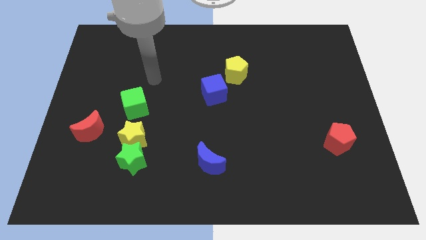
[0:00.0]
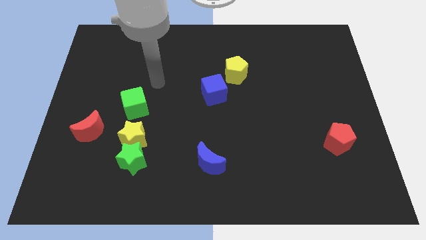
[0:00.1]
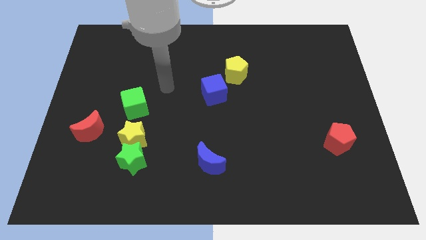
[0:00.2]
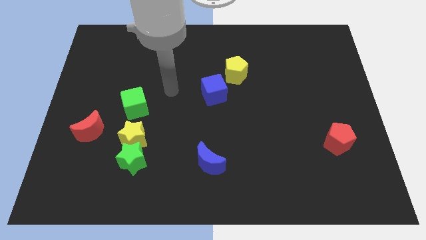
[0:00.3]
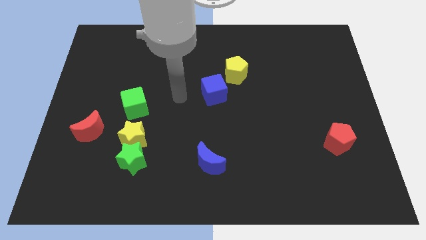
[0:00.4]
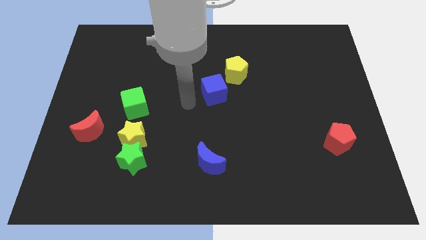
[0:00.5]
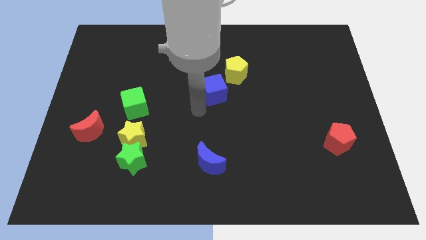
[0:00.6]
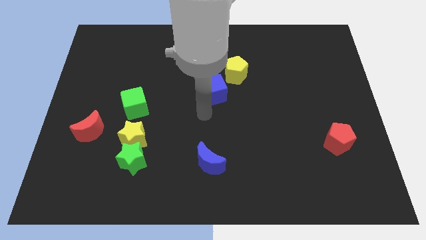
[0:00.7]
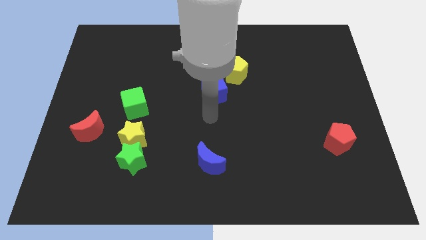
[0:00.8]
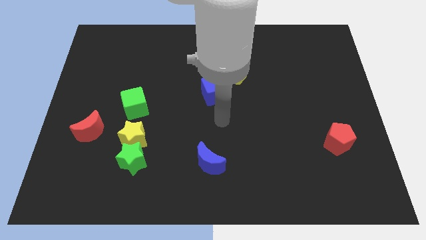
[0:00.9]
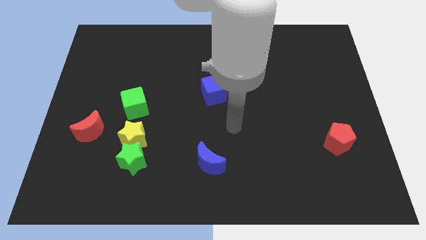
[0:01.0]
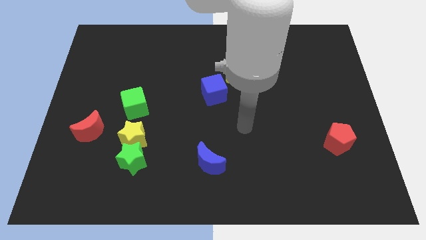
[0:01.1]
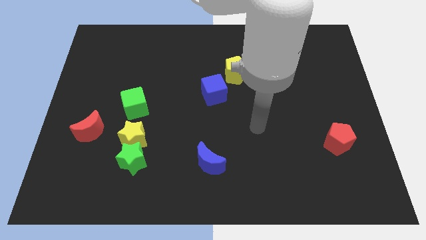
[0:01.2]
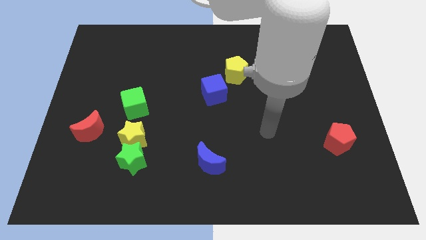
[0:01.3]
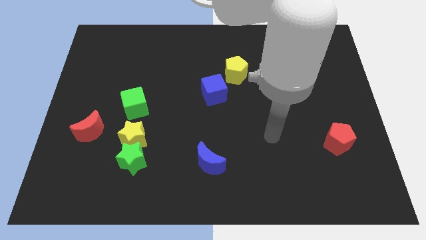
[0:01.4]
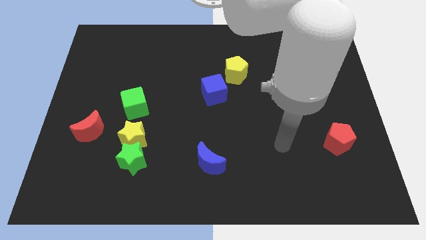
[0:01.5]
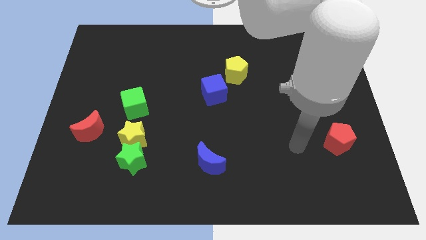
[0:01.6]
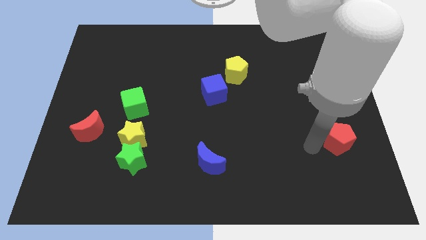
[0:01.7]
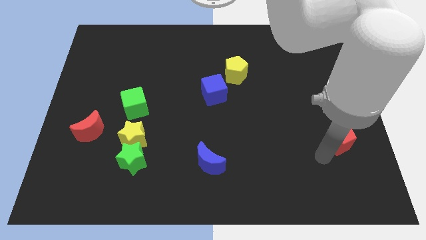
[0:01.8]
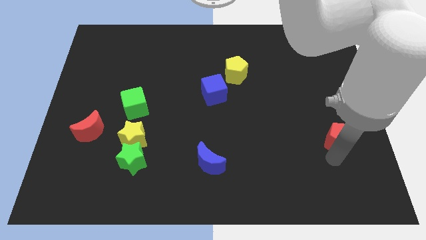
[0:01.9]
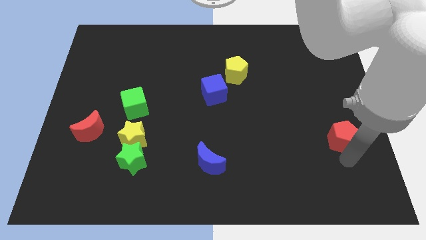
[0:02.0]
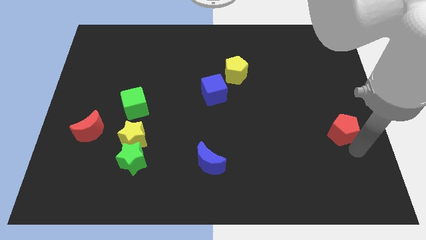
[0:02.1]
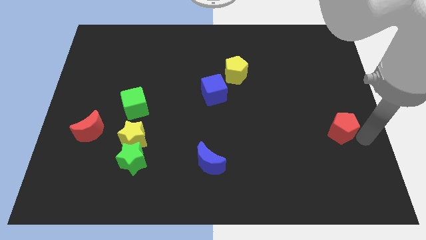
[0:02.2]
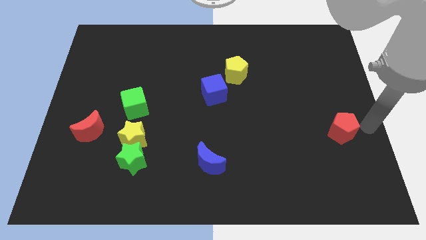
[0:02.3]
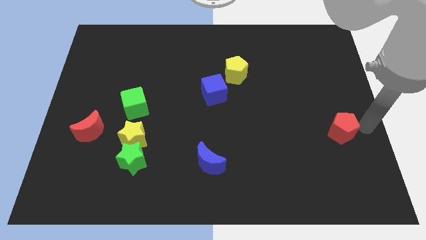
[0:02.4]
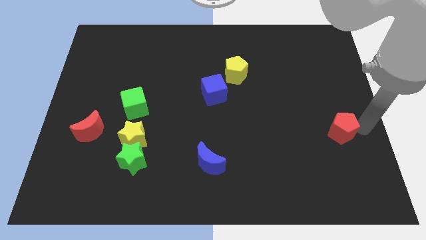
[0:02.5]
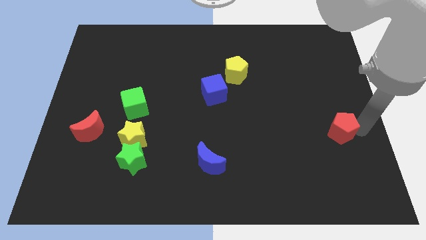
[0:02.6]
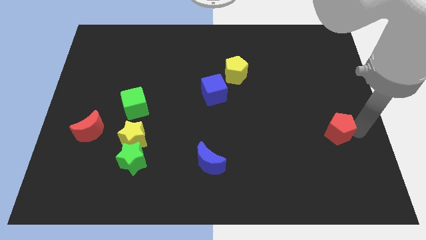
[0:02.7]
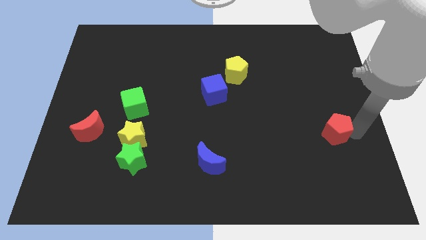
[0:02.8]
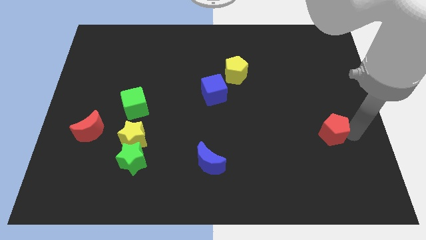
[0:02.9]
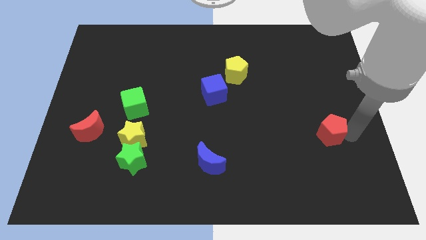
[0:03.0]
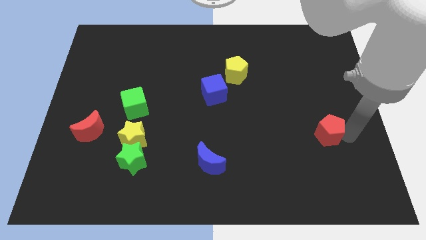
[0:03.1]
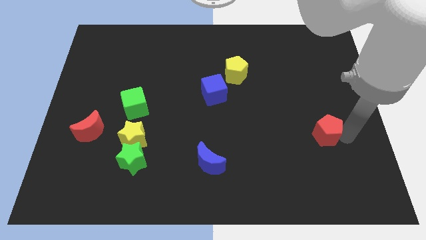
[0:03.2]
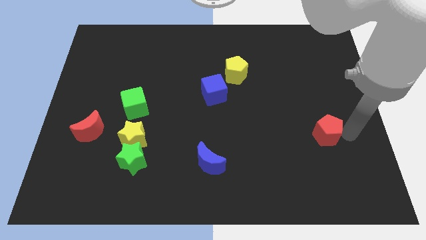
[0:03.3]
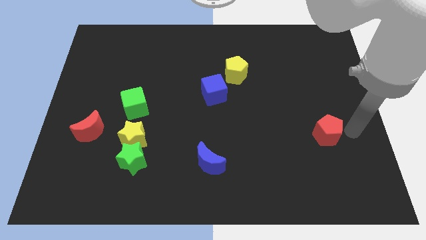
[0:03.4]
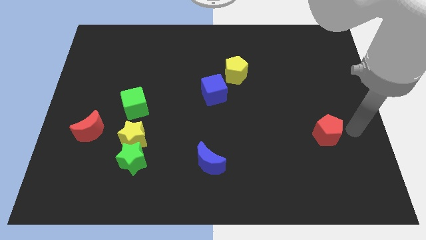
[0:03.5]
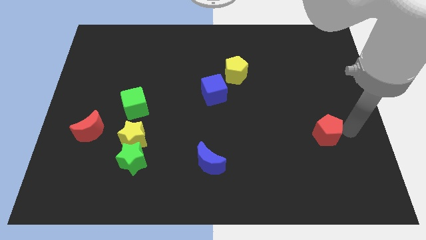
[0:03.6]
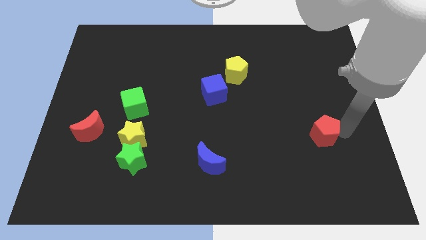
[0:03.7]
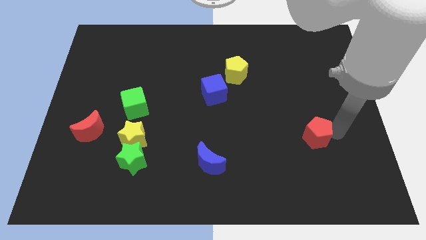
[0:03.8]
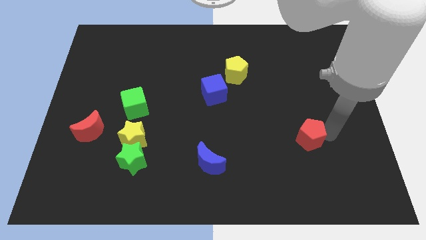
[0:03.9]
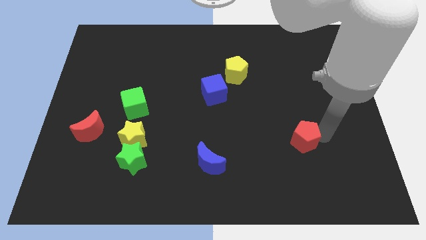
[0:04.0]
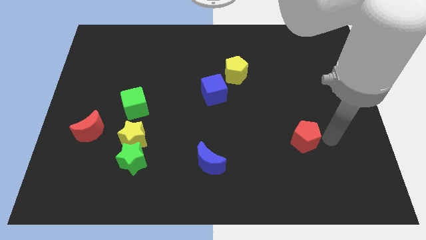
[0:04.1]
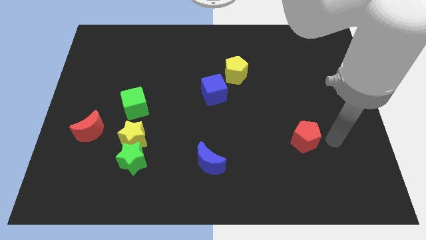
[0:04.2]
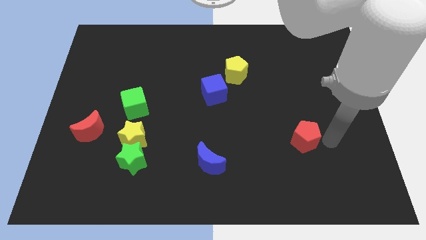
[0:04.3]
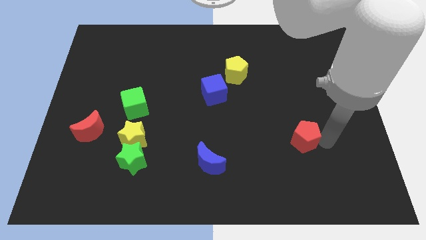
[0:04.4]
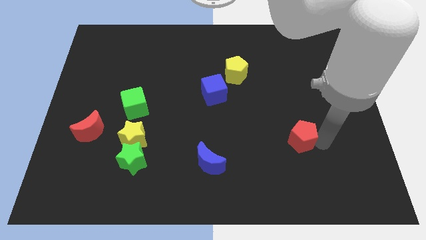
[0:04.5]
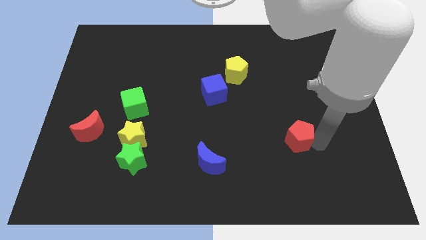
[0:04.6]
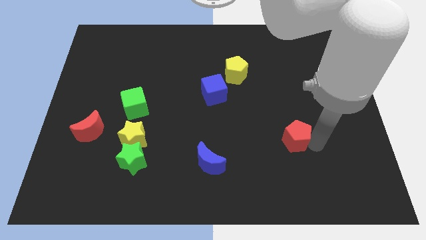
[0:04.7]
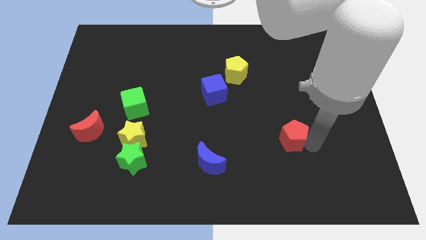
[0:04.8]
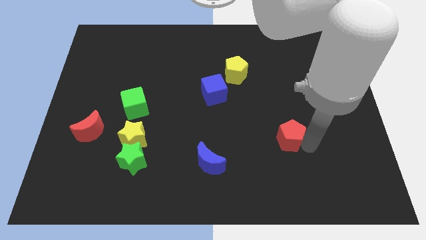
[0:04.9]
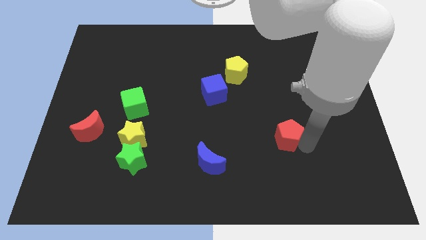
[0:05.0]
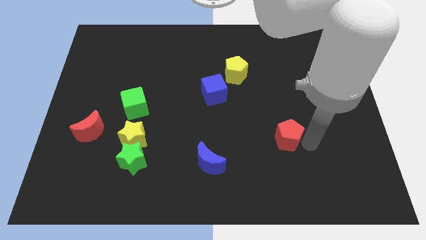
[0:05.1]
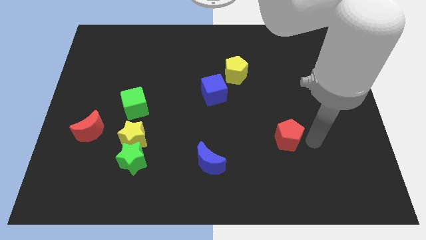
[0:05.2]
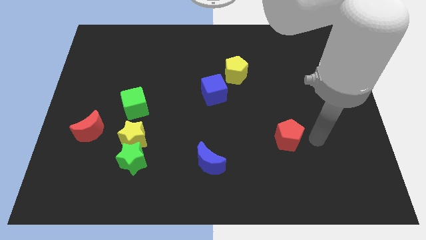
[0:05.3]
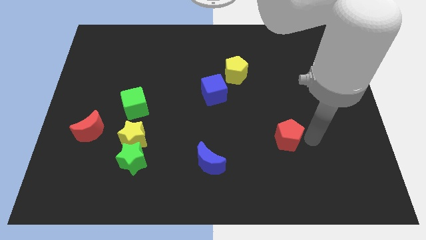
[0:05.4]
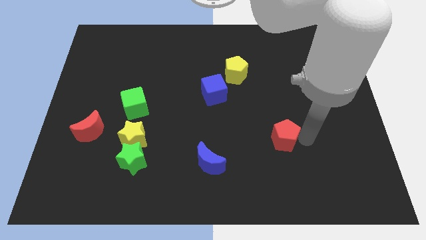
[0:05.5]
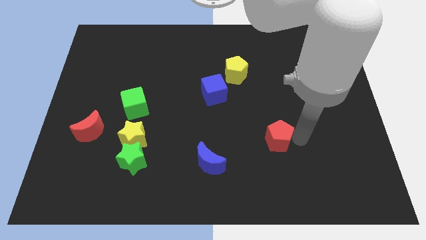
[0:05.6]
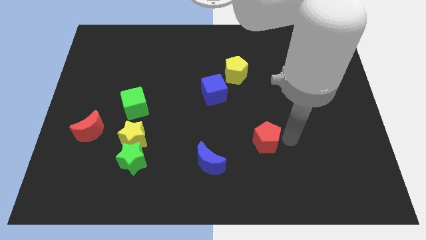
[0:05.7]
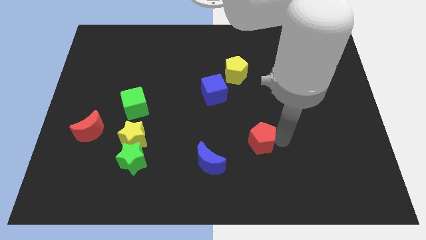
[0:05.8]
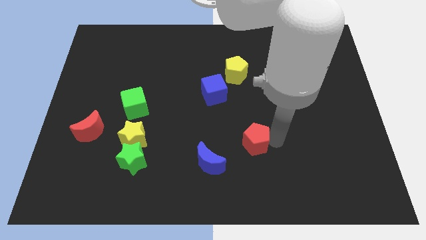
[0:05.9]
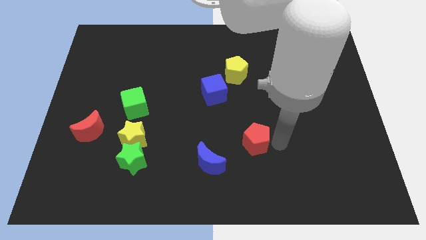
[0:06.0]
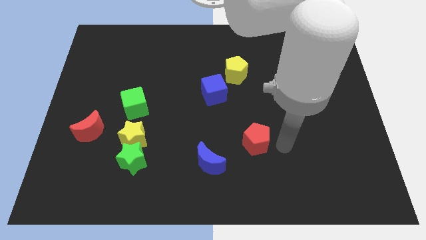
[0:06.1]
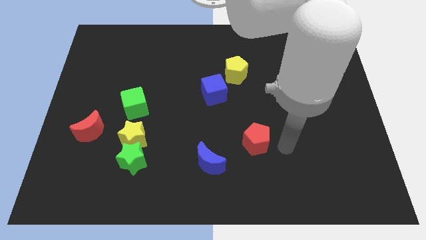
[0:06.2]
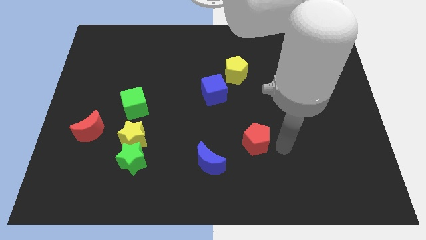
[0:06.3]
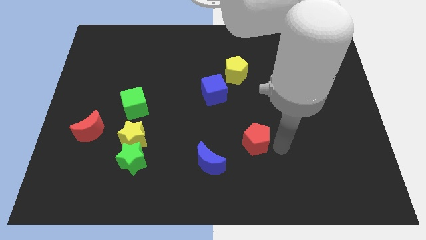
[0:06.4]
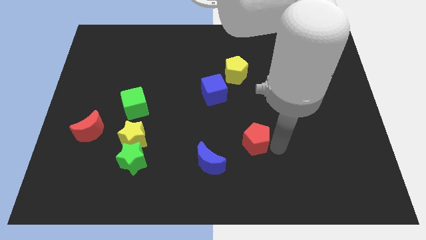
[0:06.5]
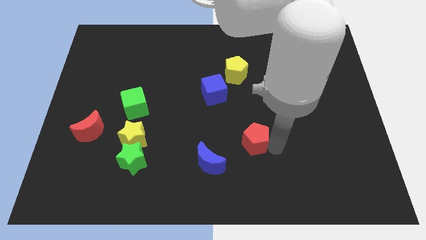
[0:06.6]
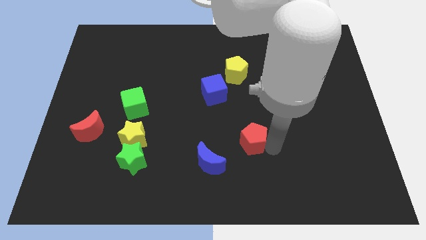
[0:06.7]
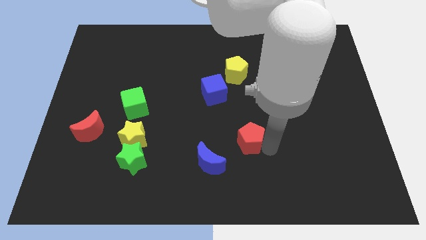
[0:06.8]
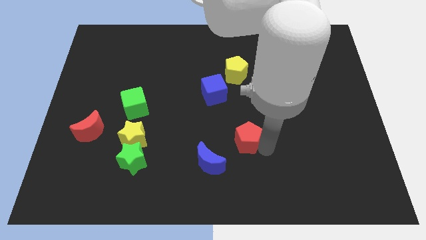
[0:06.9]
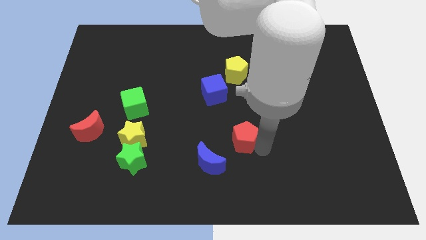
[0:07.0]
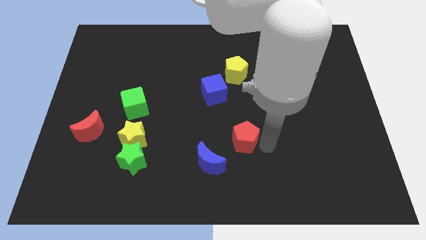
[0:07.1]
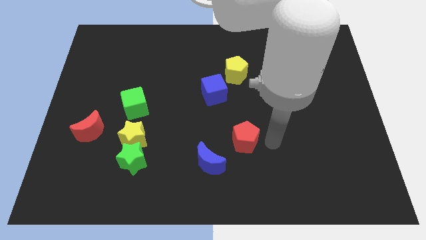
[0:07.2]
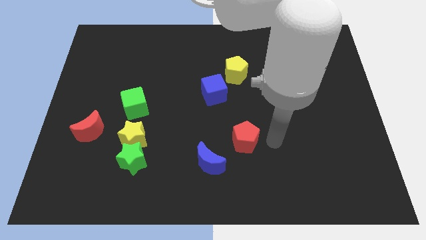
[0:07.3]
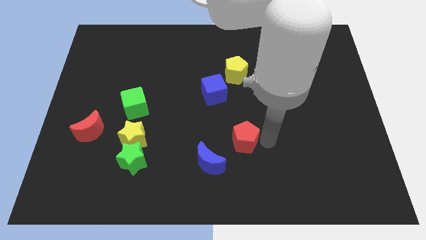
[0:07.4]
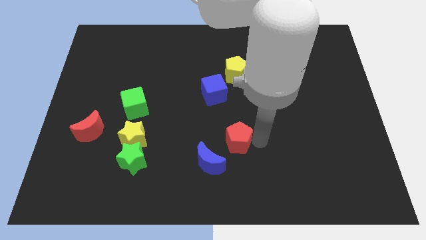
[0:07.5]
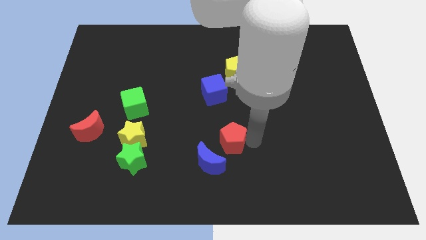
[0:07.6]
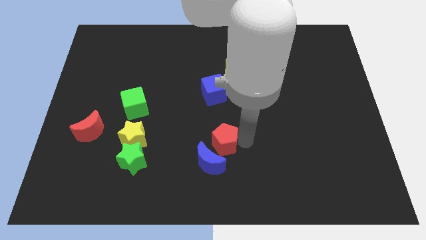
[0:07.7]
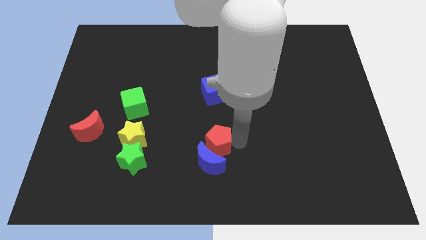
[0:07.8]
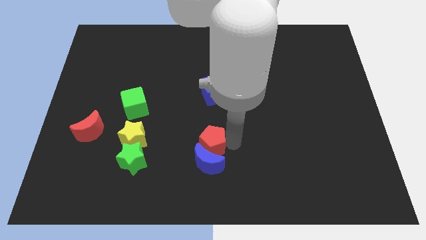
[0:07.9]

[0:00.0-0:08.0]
slide the red pentagon to the top left of the blue moon
